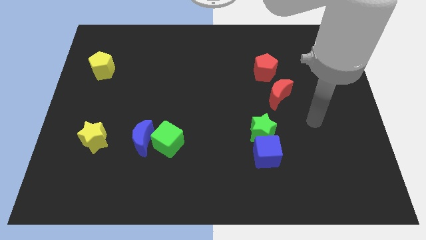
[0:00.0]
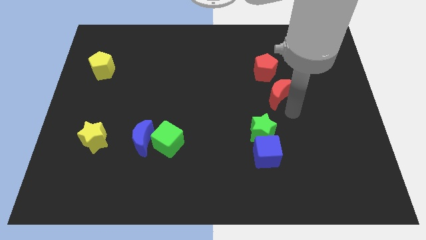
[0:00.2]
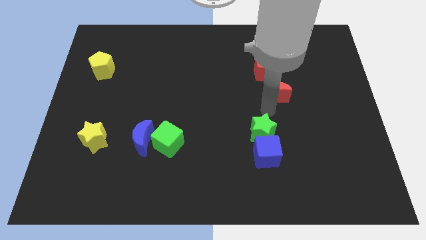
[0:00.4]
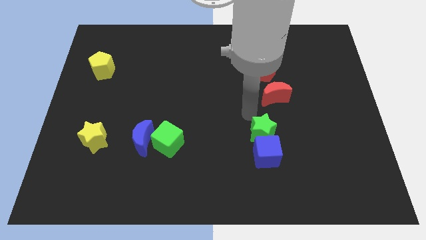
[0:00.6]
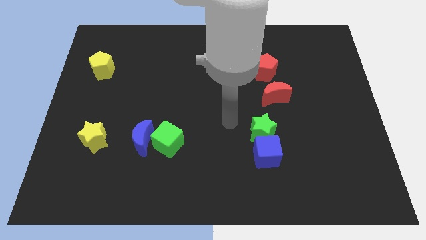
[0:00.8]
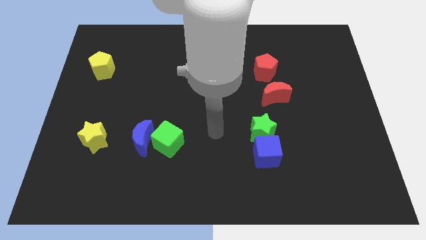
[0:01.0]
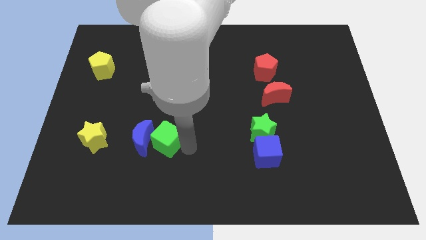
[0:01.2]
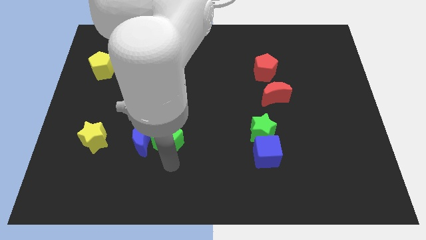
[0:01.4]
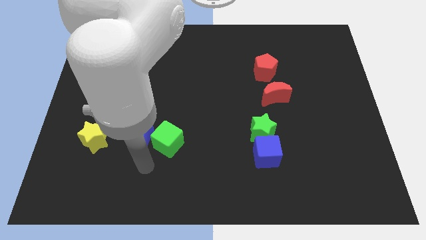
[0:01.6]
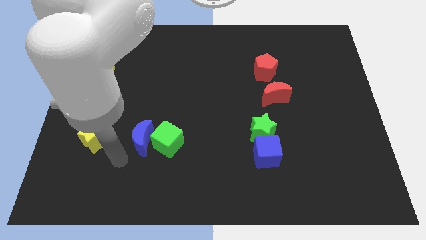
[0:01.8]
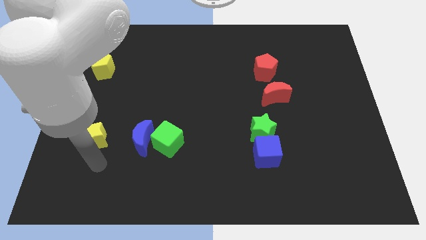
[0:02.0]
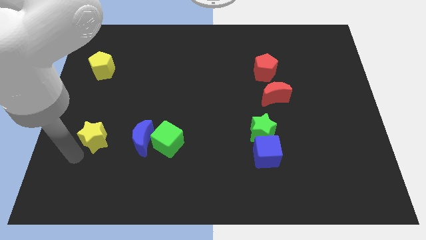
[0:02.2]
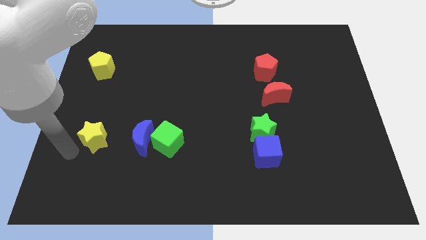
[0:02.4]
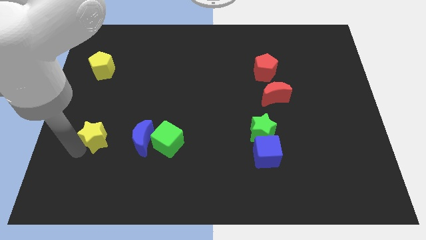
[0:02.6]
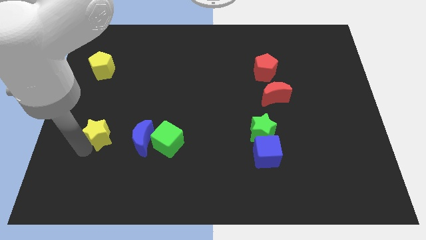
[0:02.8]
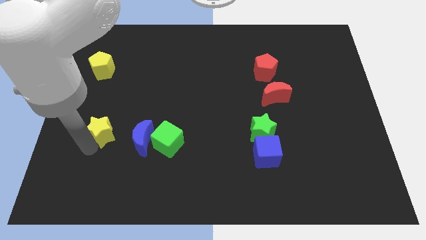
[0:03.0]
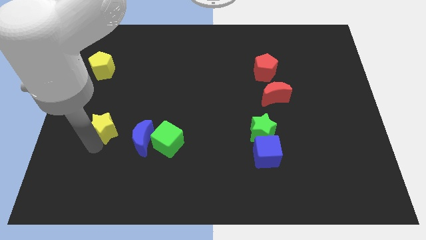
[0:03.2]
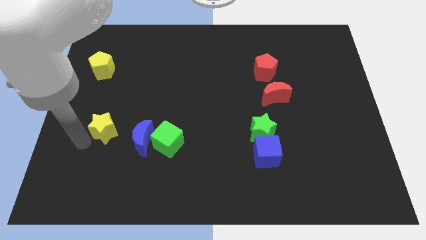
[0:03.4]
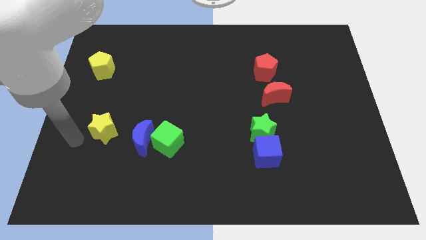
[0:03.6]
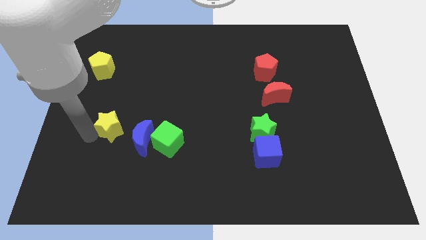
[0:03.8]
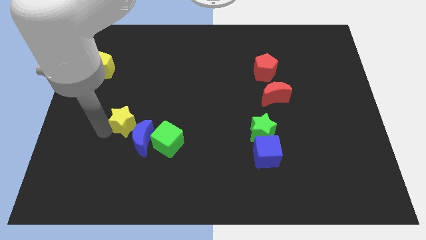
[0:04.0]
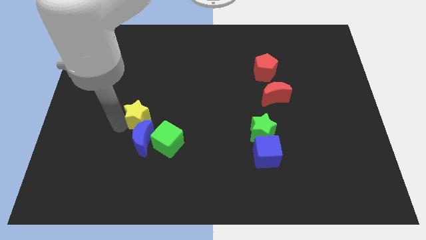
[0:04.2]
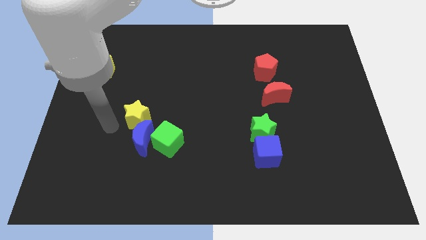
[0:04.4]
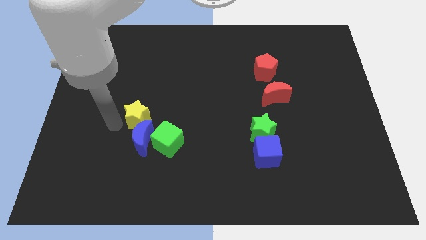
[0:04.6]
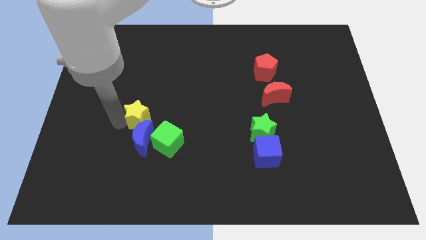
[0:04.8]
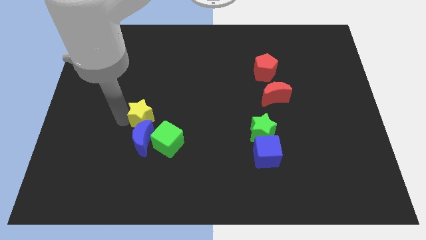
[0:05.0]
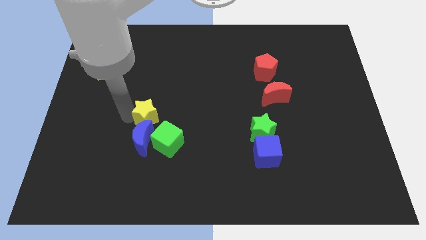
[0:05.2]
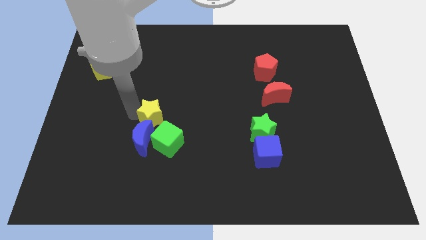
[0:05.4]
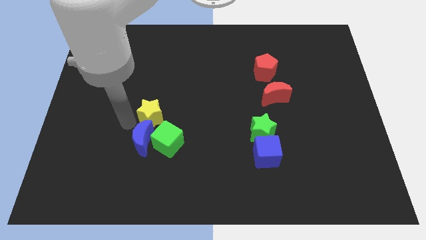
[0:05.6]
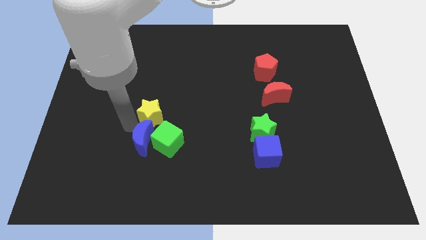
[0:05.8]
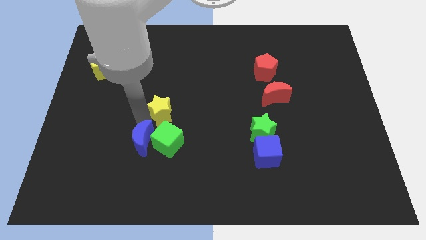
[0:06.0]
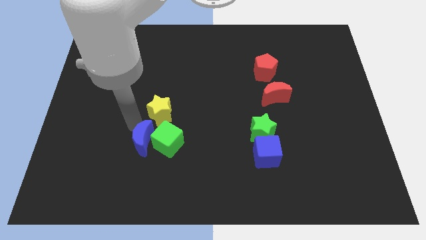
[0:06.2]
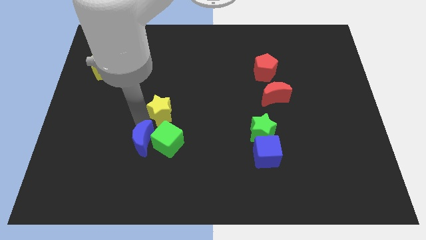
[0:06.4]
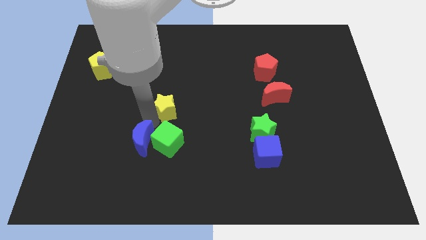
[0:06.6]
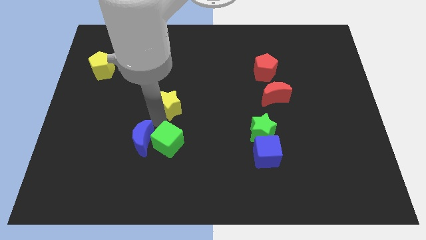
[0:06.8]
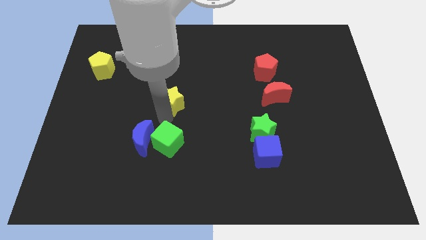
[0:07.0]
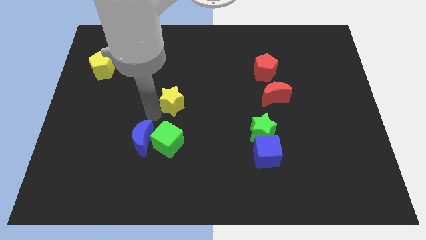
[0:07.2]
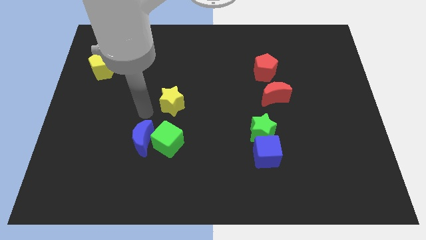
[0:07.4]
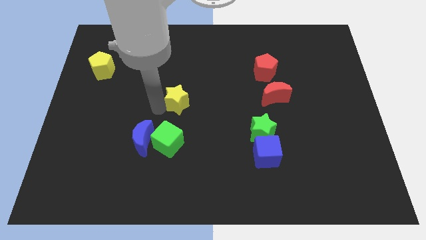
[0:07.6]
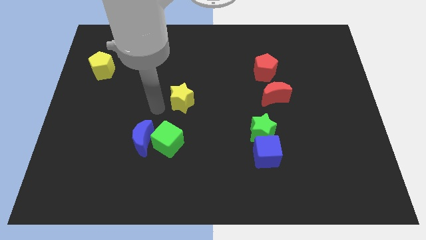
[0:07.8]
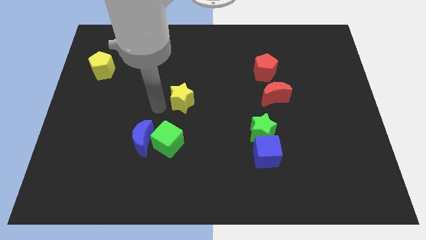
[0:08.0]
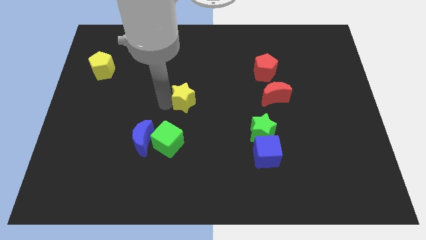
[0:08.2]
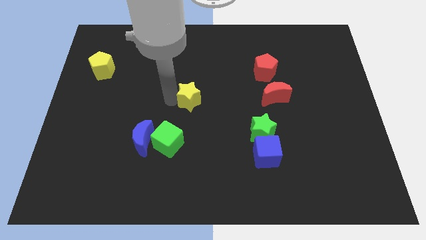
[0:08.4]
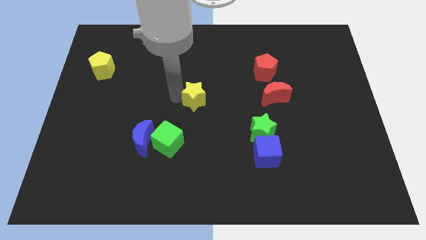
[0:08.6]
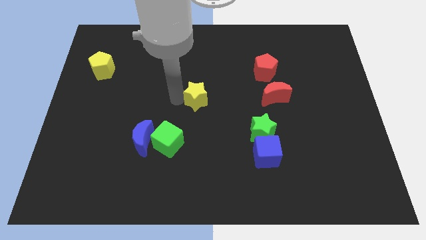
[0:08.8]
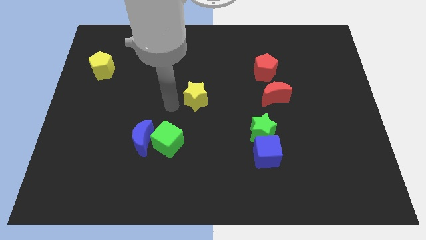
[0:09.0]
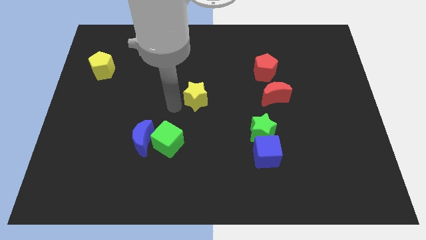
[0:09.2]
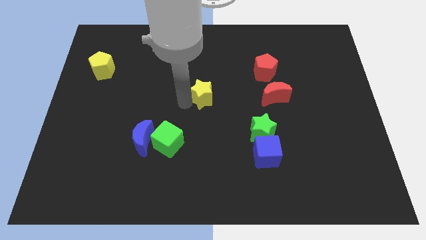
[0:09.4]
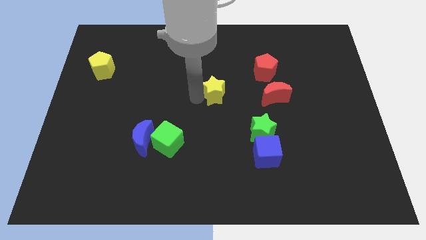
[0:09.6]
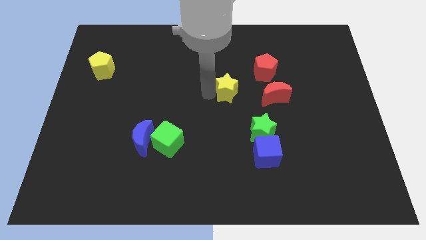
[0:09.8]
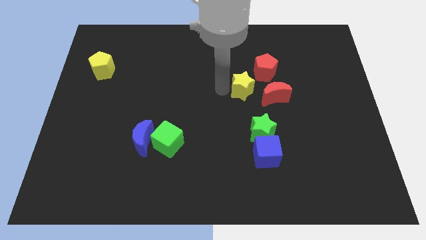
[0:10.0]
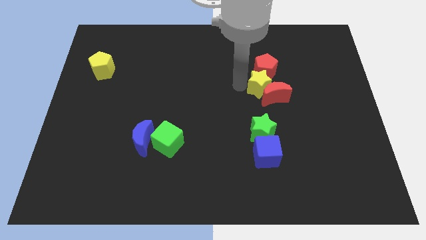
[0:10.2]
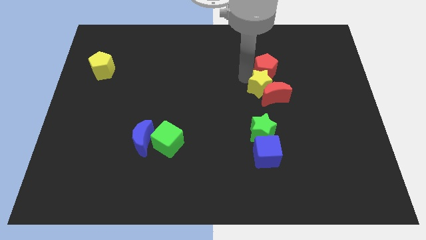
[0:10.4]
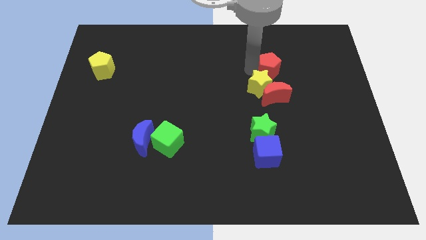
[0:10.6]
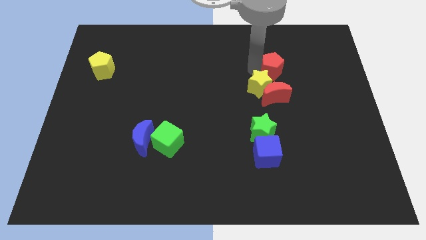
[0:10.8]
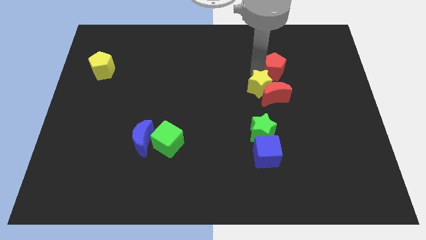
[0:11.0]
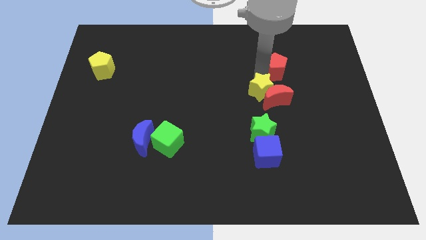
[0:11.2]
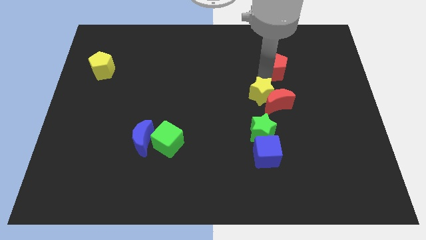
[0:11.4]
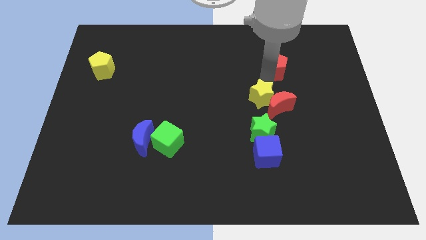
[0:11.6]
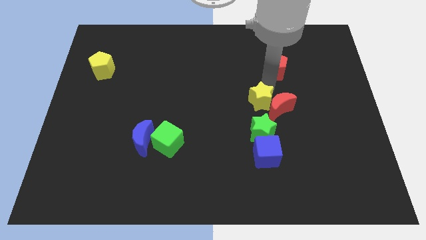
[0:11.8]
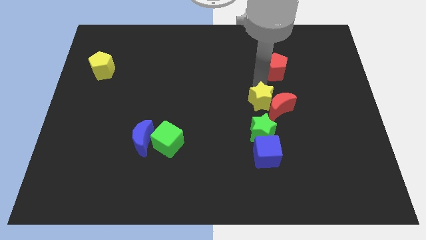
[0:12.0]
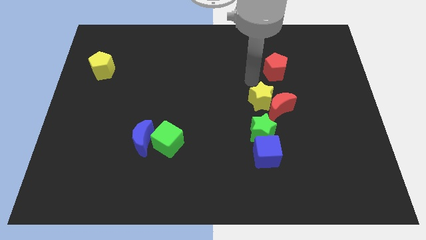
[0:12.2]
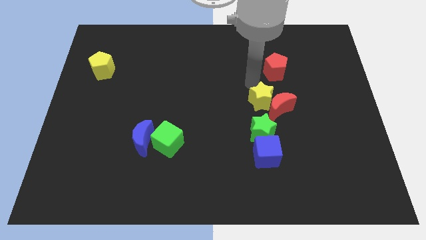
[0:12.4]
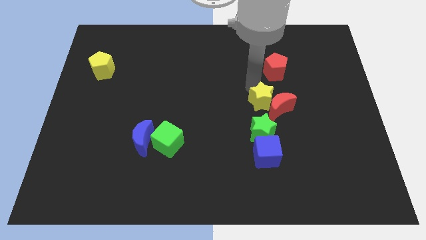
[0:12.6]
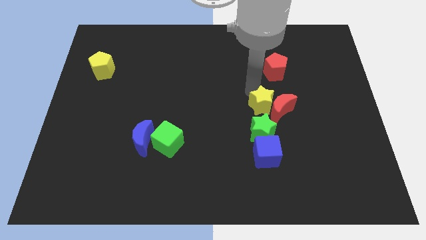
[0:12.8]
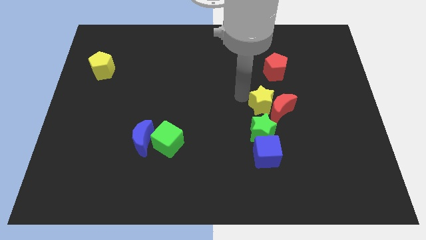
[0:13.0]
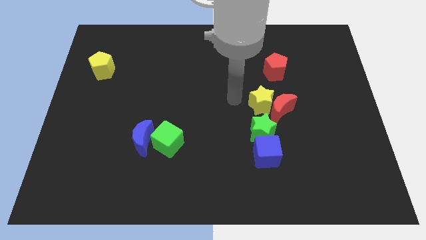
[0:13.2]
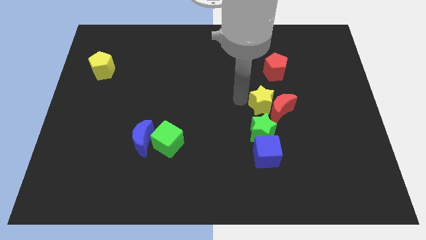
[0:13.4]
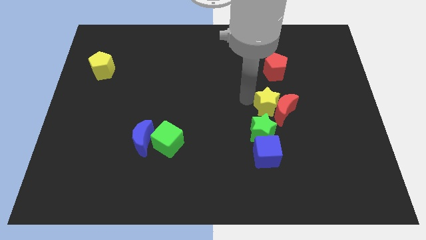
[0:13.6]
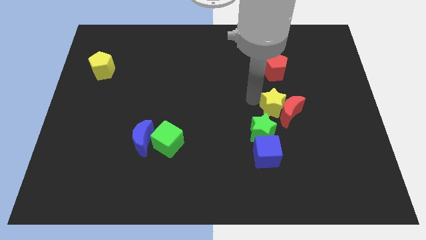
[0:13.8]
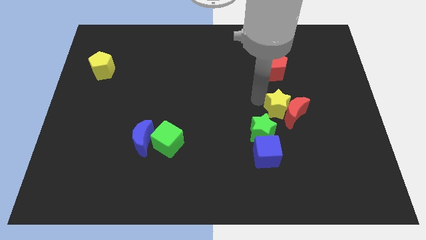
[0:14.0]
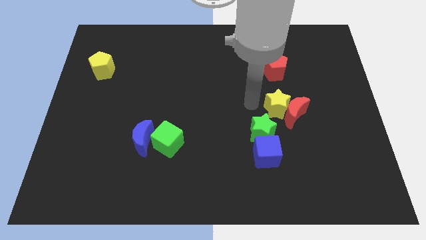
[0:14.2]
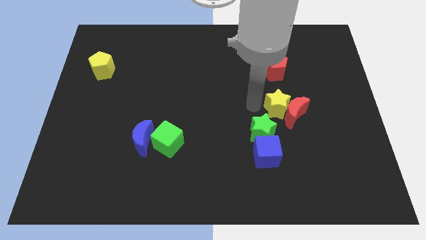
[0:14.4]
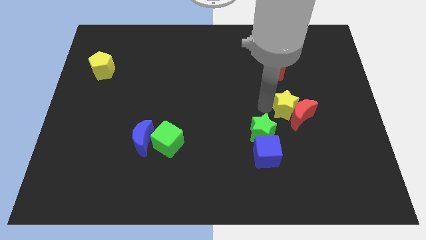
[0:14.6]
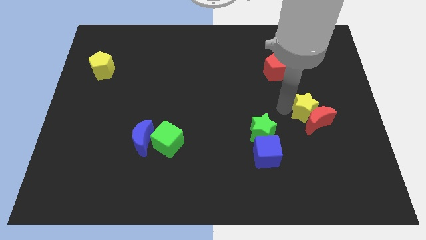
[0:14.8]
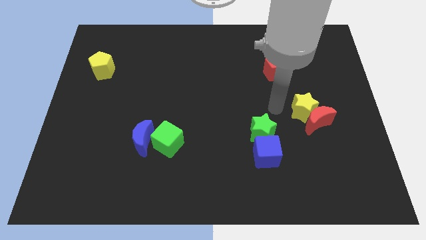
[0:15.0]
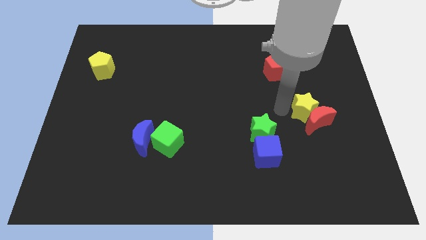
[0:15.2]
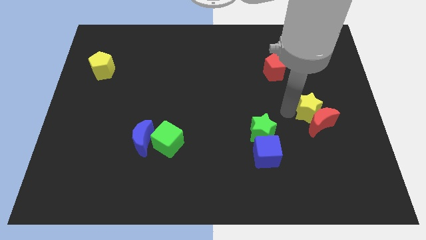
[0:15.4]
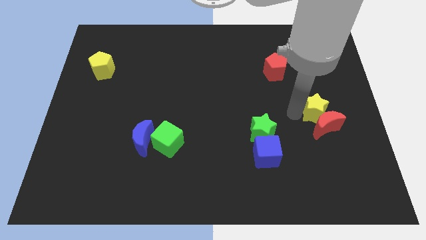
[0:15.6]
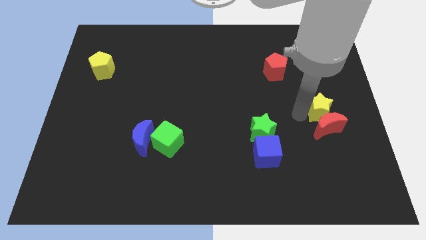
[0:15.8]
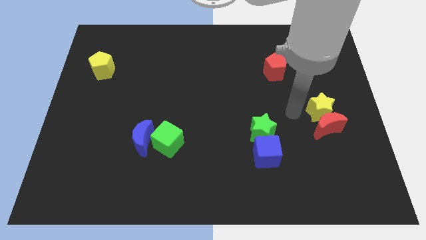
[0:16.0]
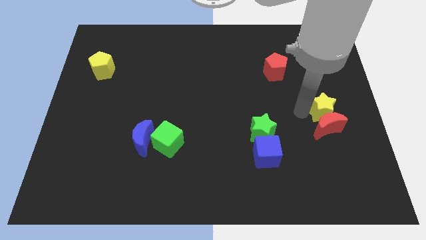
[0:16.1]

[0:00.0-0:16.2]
move the yellow star to the right side of the board
